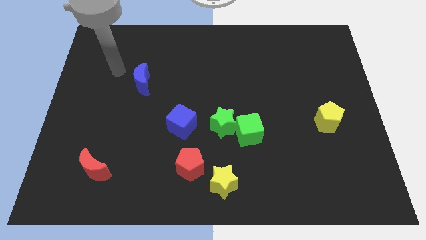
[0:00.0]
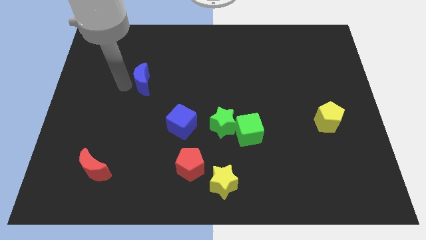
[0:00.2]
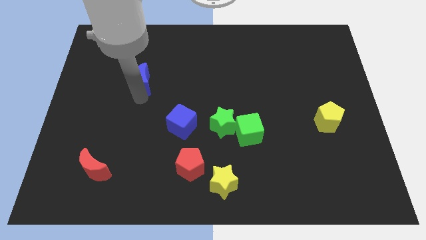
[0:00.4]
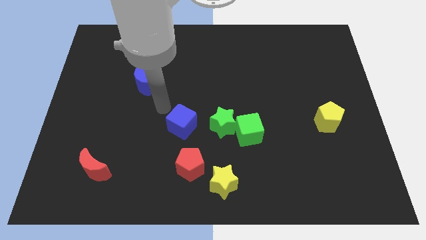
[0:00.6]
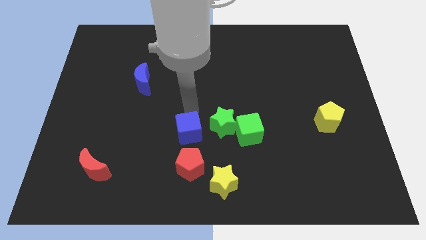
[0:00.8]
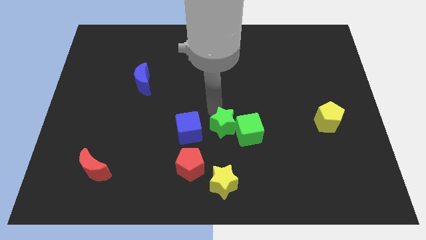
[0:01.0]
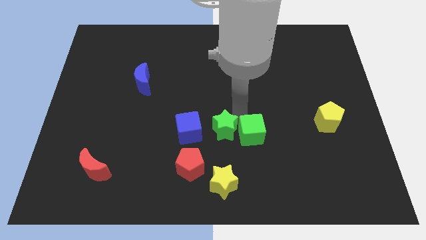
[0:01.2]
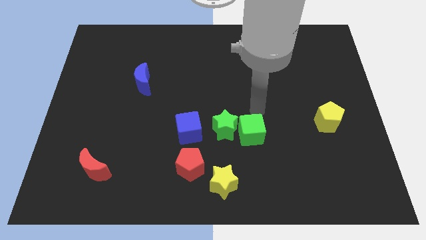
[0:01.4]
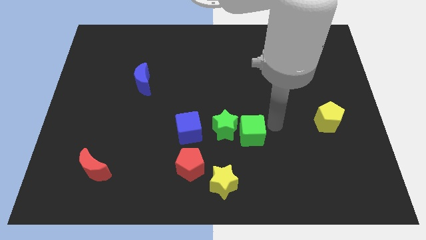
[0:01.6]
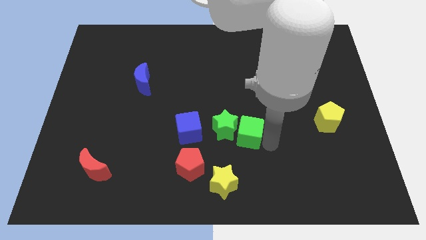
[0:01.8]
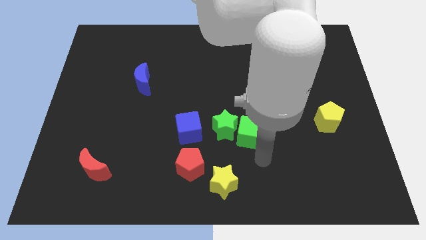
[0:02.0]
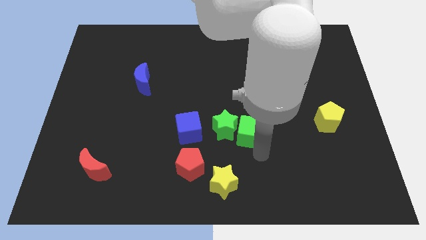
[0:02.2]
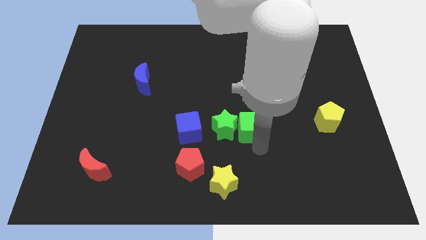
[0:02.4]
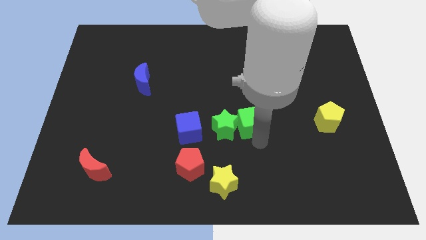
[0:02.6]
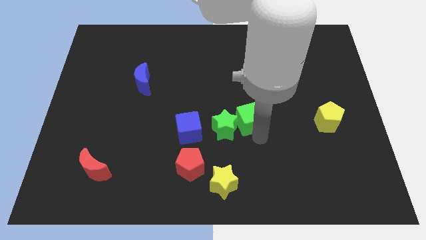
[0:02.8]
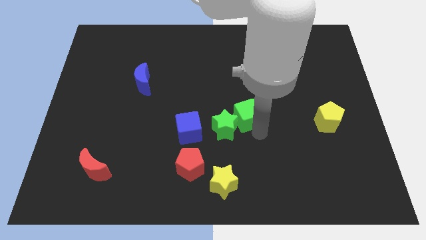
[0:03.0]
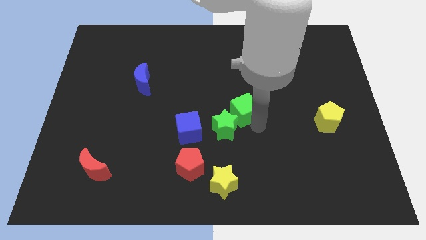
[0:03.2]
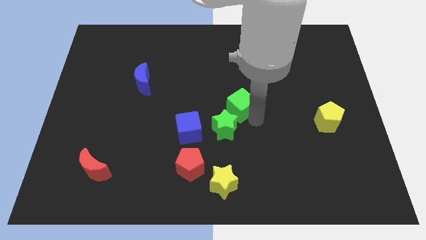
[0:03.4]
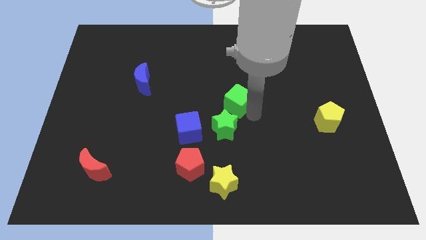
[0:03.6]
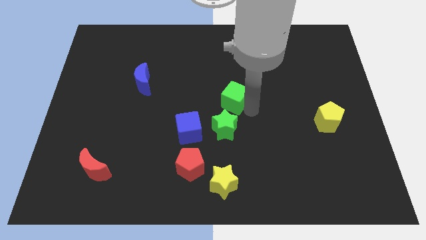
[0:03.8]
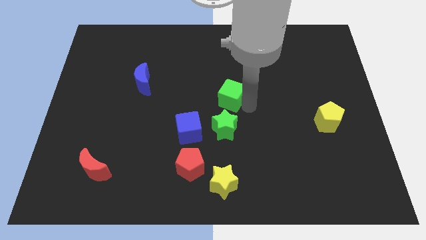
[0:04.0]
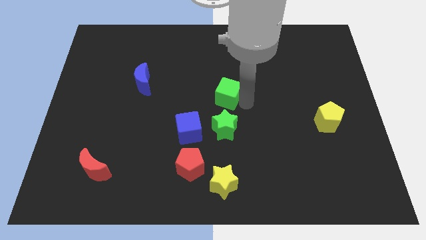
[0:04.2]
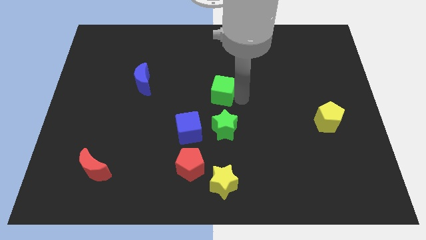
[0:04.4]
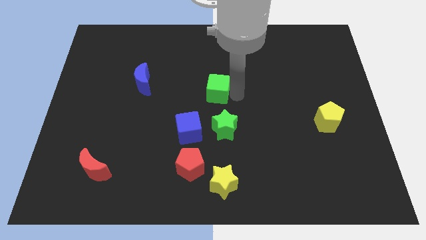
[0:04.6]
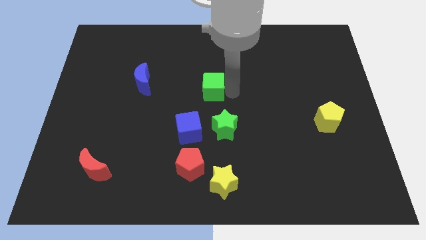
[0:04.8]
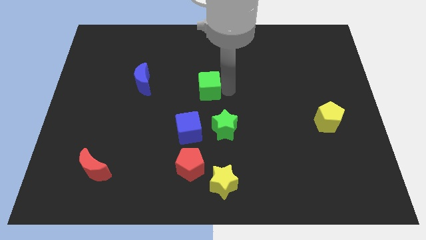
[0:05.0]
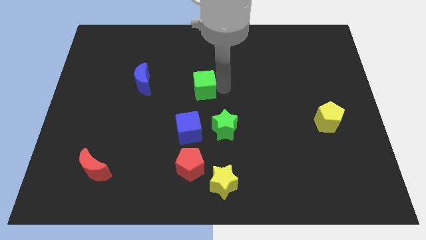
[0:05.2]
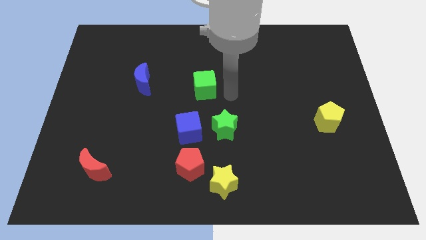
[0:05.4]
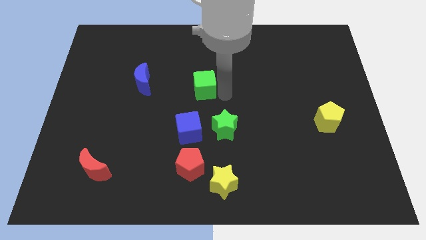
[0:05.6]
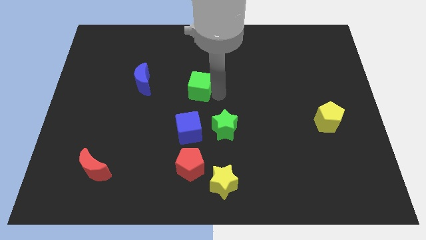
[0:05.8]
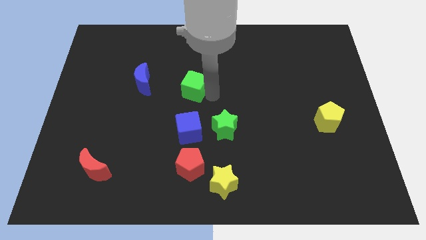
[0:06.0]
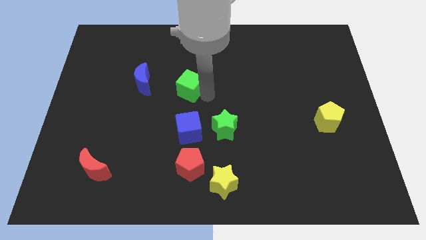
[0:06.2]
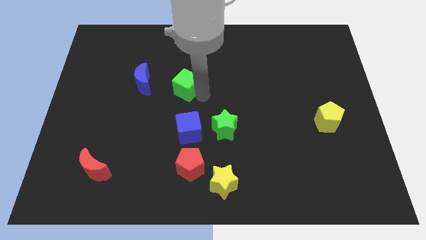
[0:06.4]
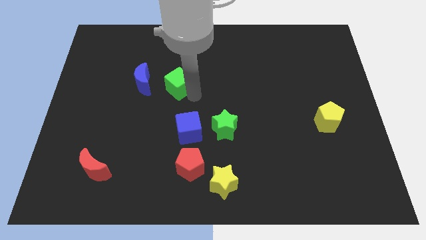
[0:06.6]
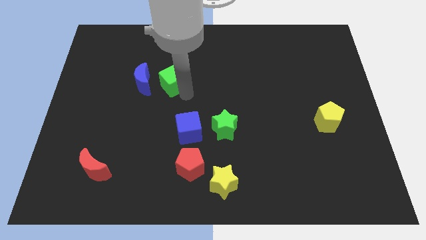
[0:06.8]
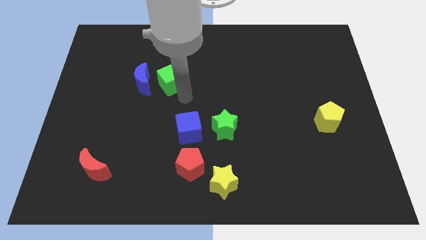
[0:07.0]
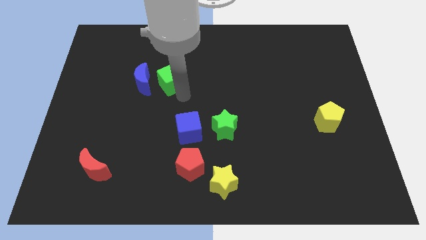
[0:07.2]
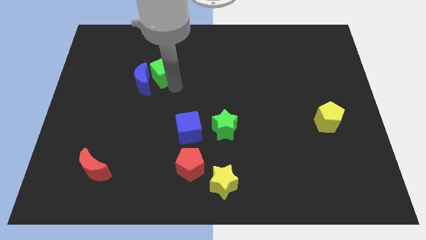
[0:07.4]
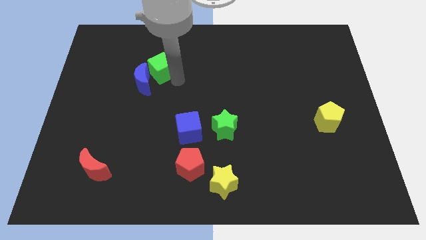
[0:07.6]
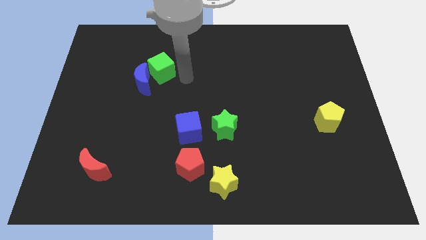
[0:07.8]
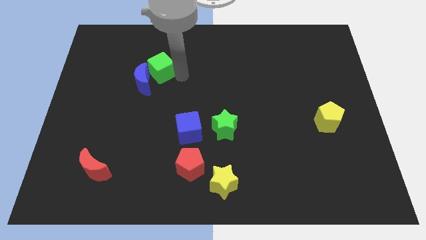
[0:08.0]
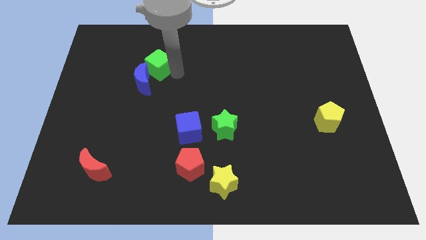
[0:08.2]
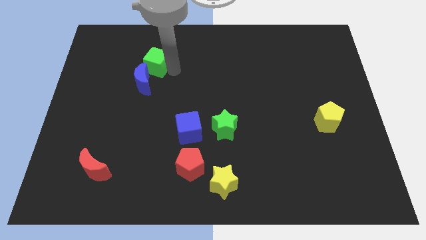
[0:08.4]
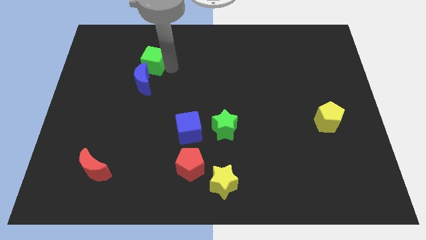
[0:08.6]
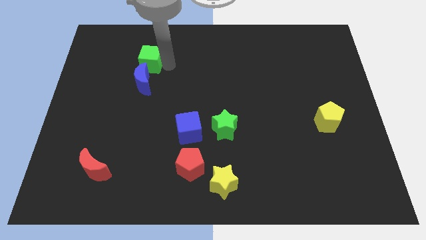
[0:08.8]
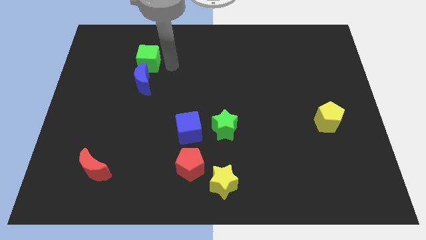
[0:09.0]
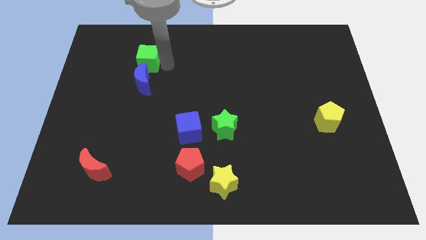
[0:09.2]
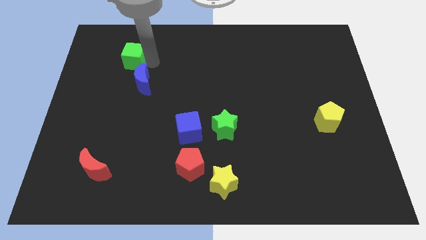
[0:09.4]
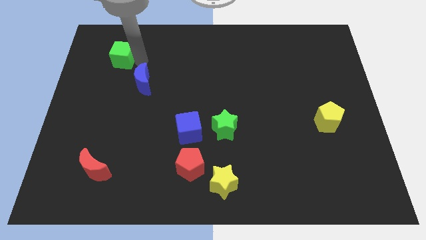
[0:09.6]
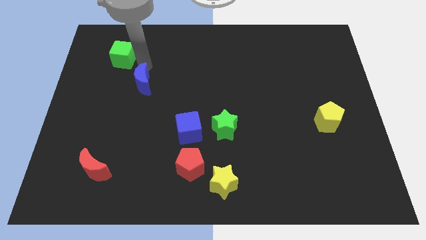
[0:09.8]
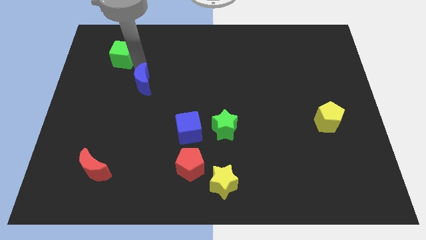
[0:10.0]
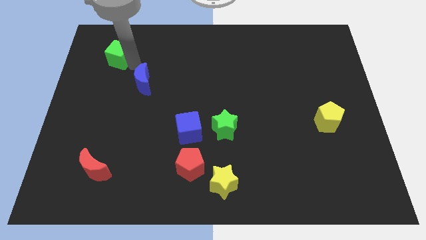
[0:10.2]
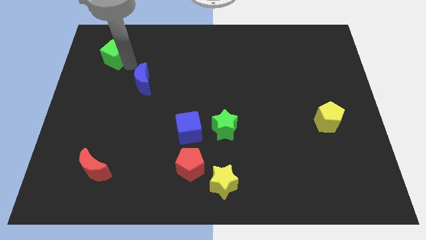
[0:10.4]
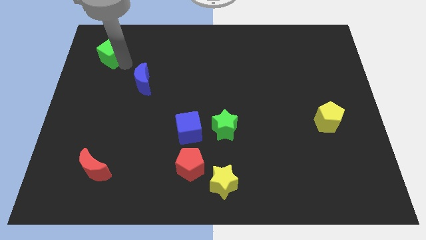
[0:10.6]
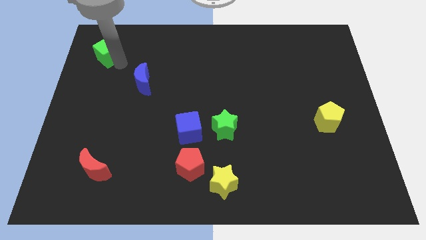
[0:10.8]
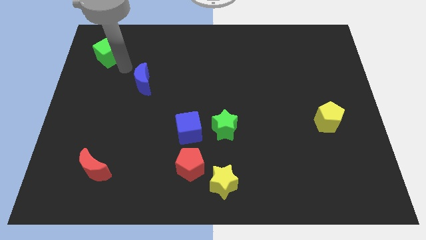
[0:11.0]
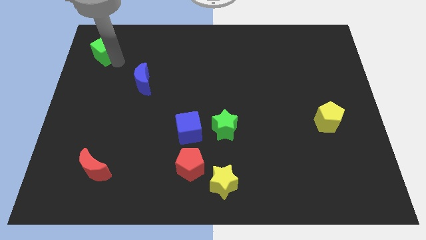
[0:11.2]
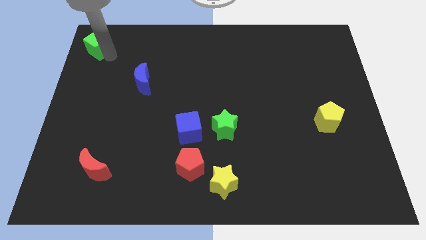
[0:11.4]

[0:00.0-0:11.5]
put the green cube to the top left

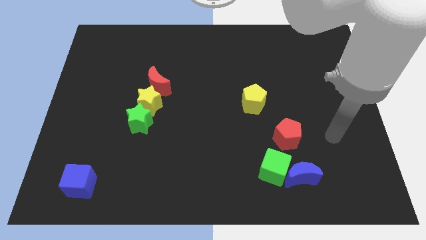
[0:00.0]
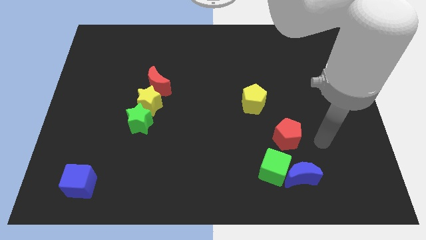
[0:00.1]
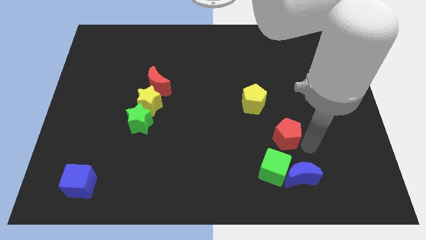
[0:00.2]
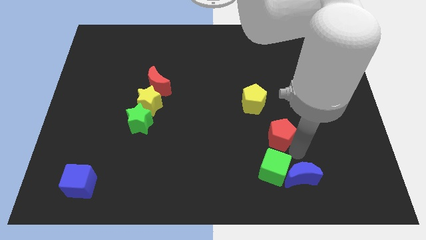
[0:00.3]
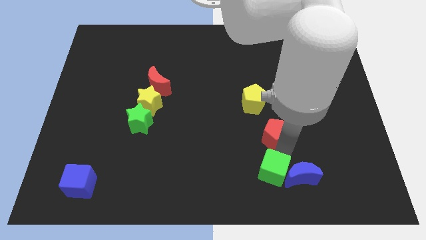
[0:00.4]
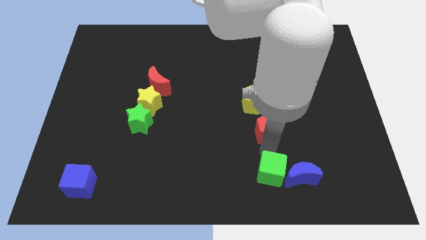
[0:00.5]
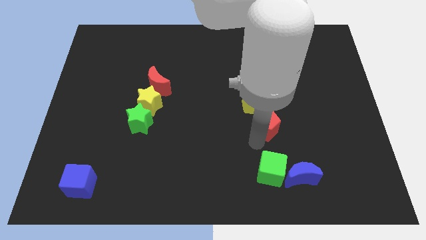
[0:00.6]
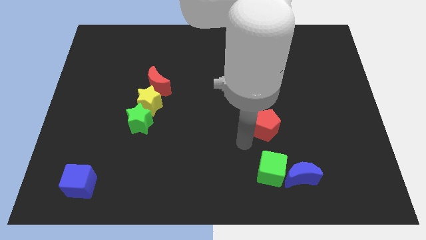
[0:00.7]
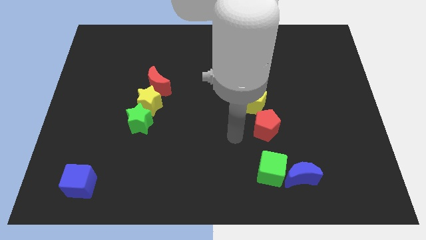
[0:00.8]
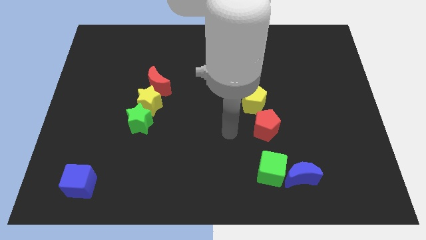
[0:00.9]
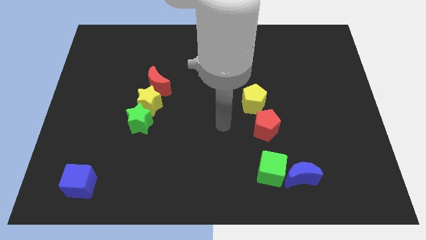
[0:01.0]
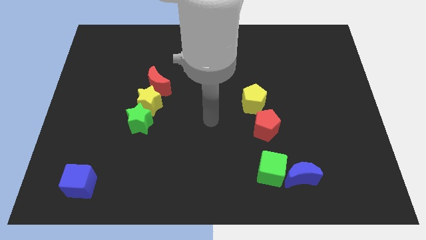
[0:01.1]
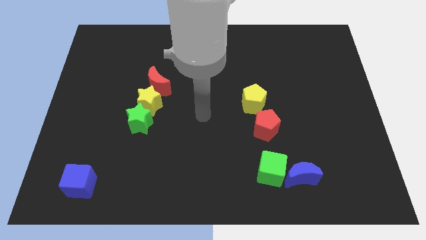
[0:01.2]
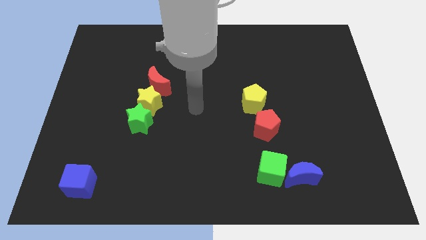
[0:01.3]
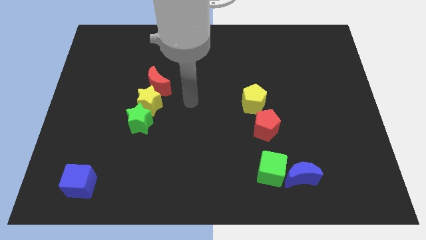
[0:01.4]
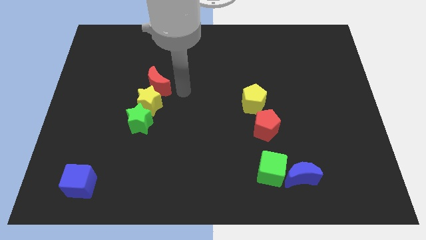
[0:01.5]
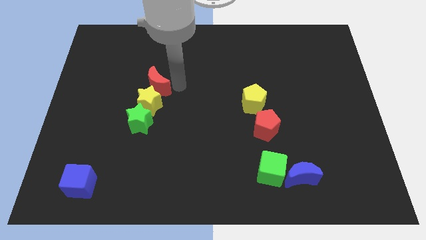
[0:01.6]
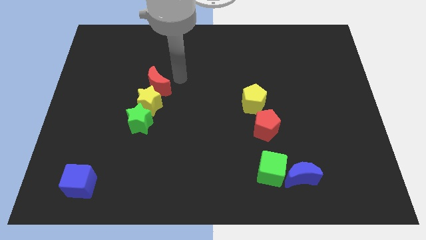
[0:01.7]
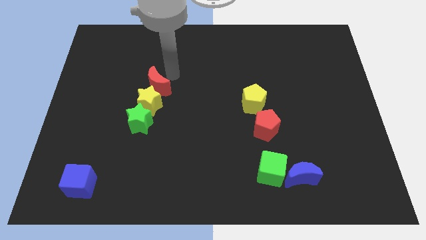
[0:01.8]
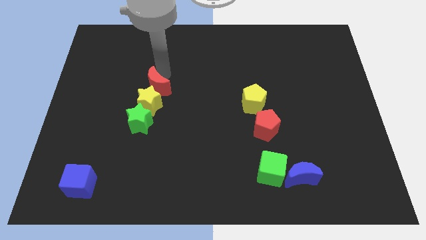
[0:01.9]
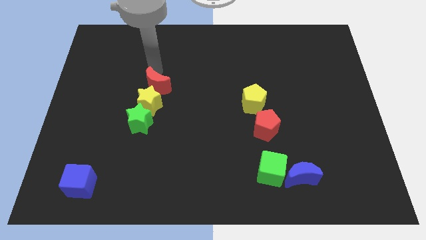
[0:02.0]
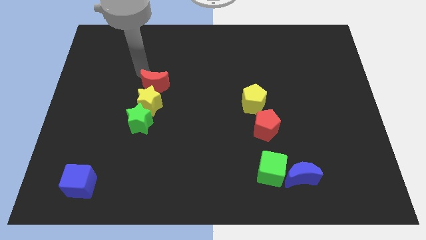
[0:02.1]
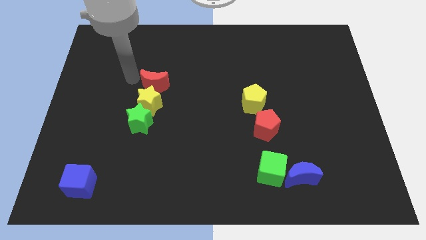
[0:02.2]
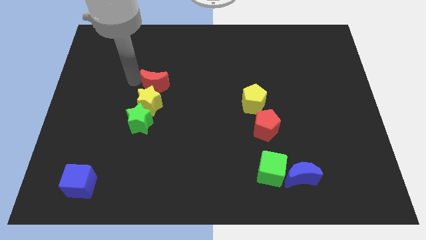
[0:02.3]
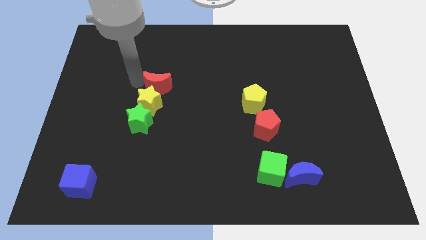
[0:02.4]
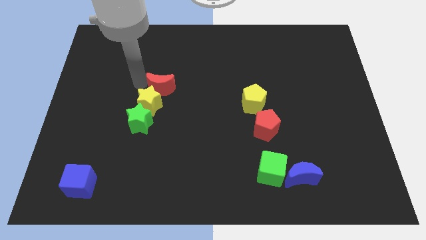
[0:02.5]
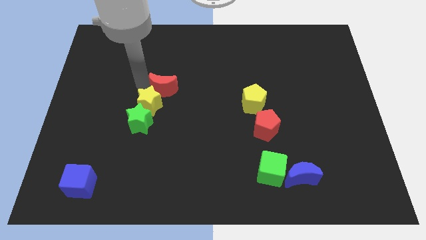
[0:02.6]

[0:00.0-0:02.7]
slide the red moon to the center of the board
